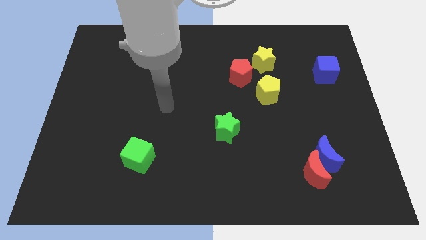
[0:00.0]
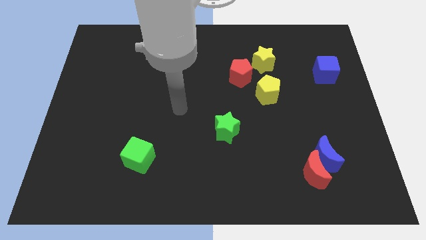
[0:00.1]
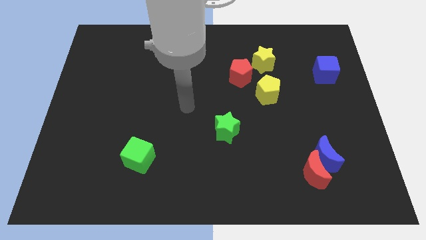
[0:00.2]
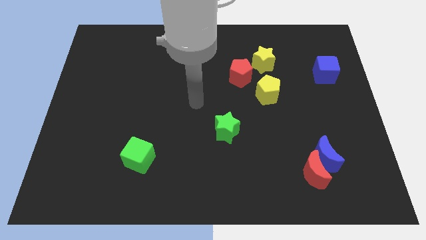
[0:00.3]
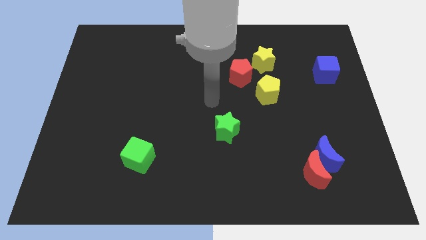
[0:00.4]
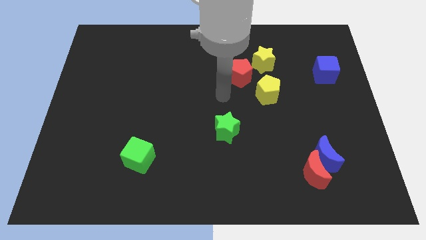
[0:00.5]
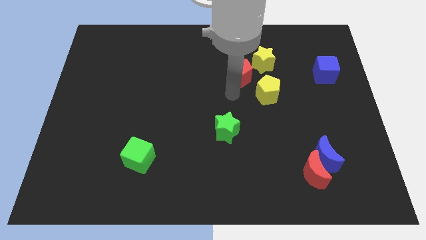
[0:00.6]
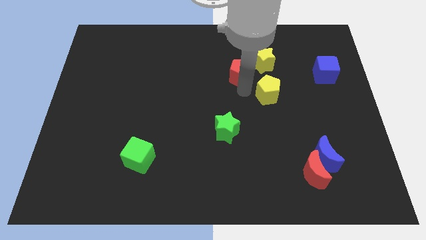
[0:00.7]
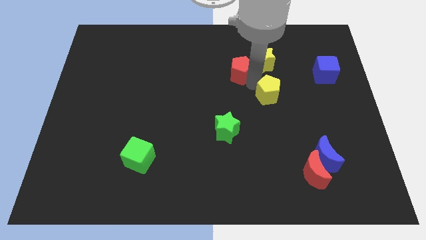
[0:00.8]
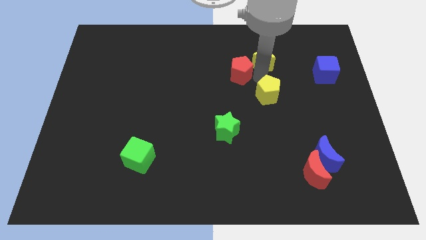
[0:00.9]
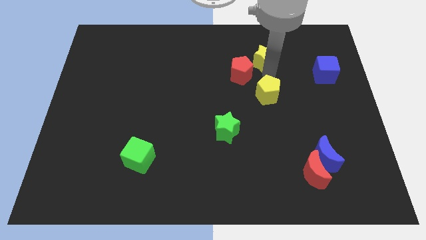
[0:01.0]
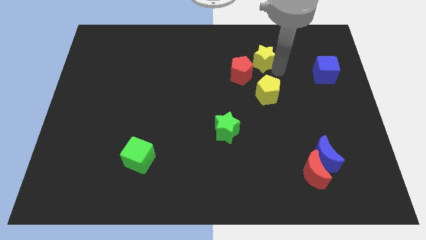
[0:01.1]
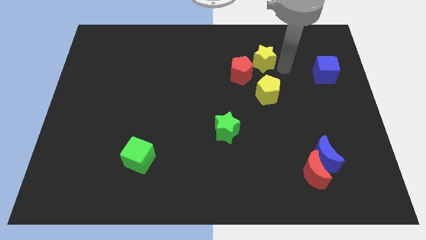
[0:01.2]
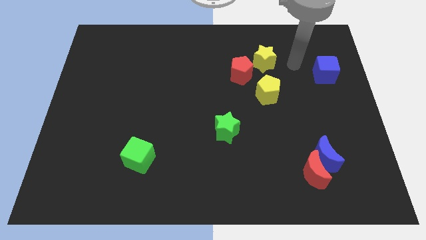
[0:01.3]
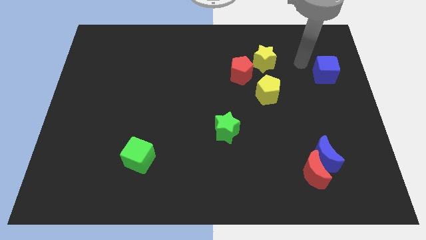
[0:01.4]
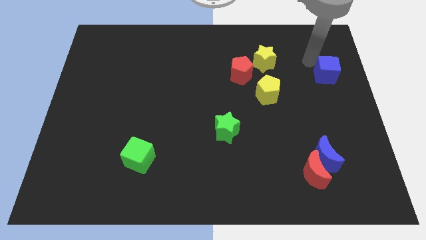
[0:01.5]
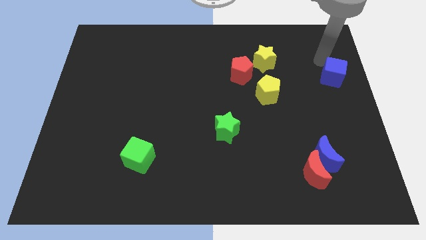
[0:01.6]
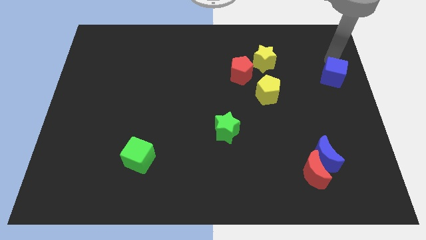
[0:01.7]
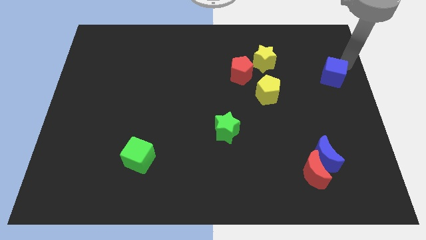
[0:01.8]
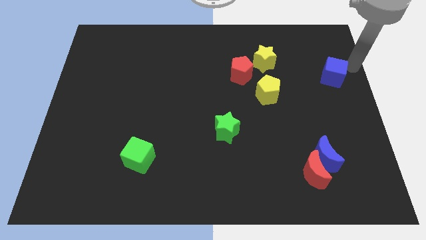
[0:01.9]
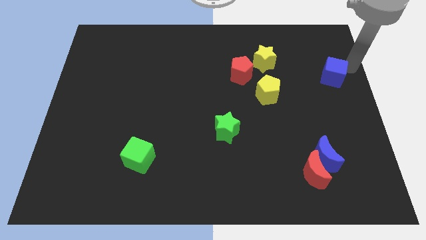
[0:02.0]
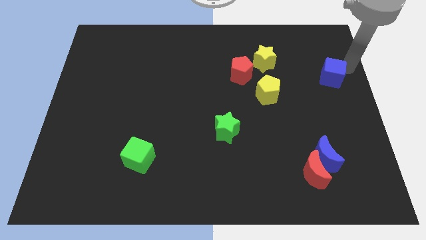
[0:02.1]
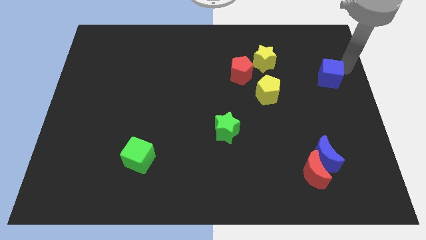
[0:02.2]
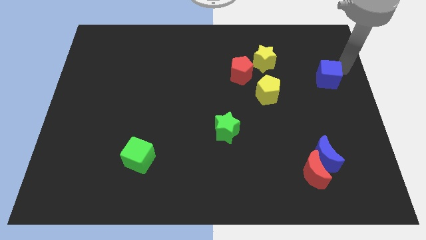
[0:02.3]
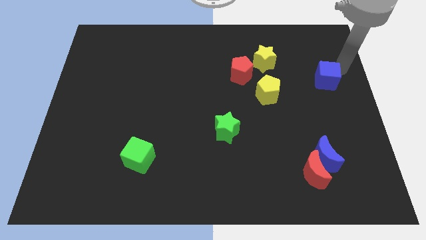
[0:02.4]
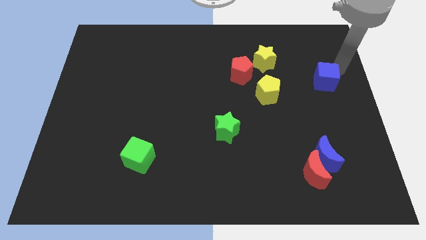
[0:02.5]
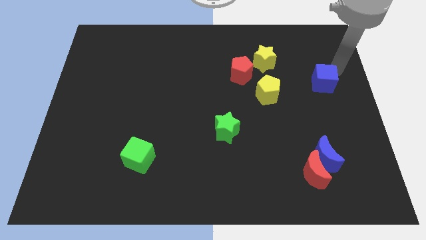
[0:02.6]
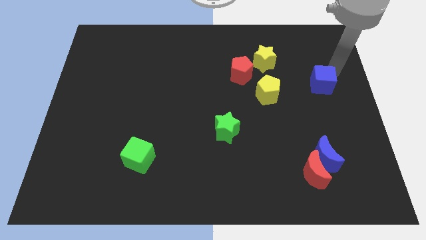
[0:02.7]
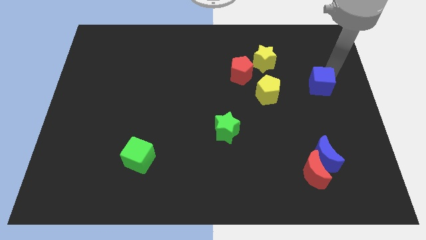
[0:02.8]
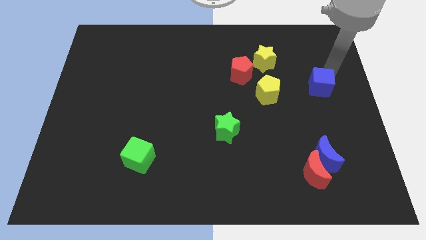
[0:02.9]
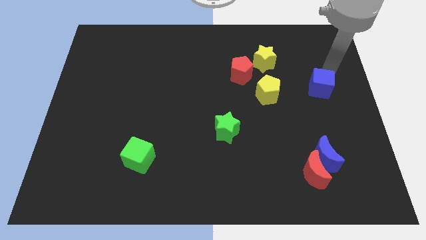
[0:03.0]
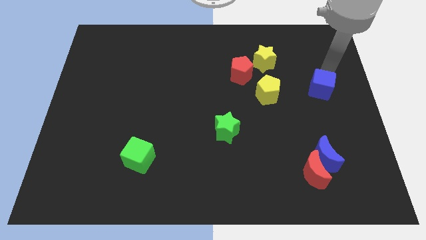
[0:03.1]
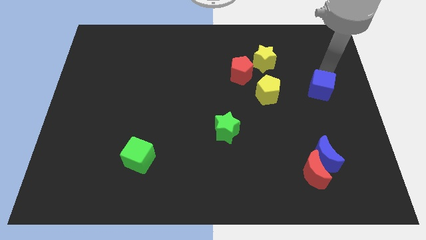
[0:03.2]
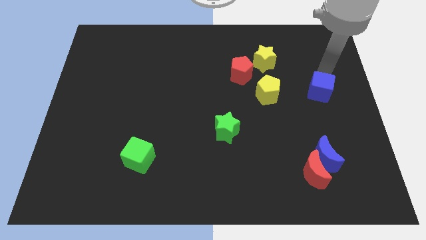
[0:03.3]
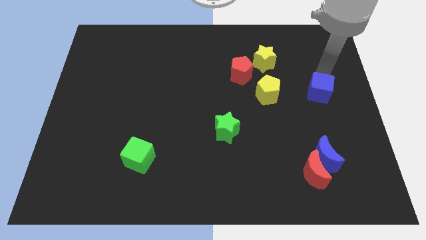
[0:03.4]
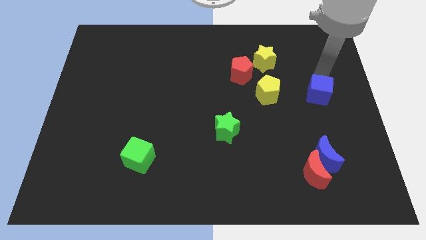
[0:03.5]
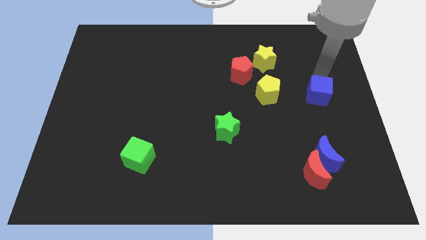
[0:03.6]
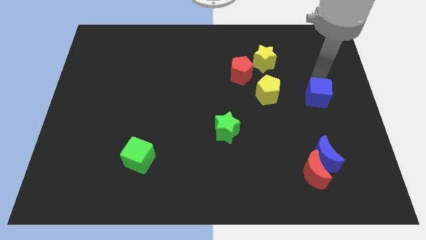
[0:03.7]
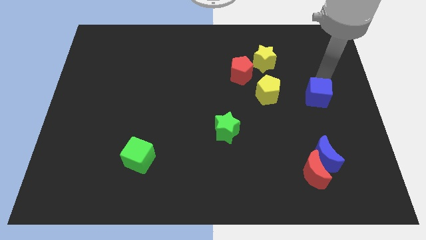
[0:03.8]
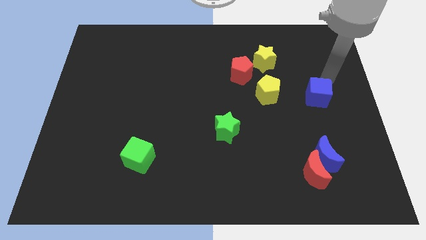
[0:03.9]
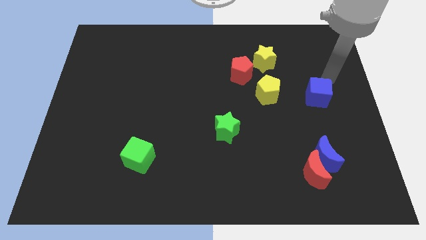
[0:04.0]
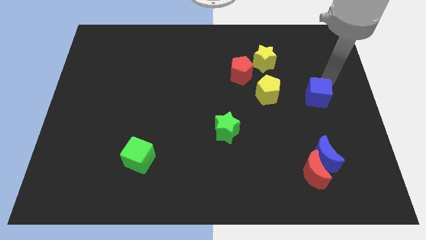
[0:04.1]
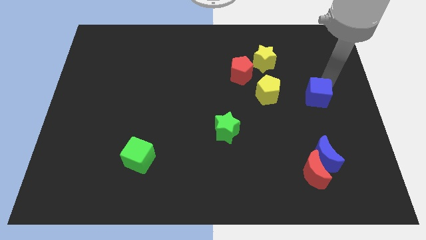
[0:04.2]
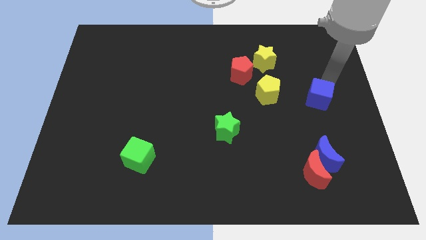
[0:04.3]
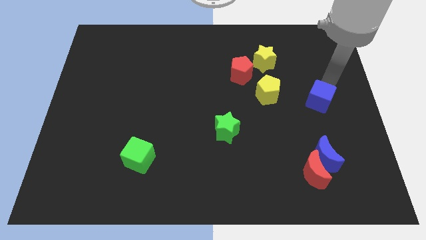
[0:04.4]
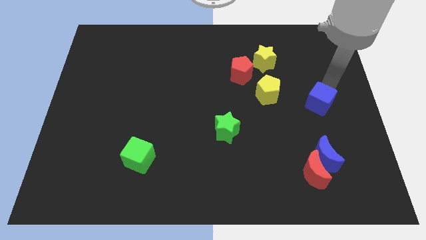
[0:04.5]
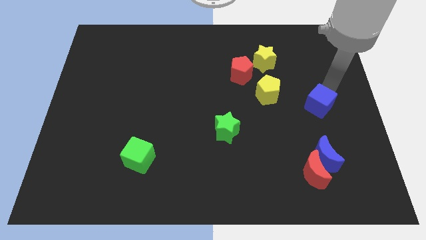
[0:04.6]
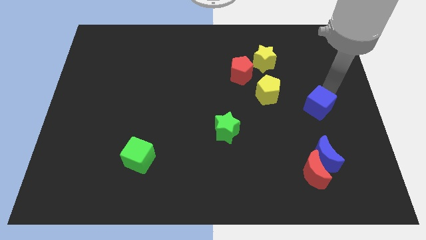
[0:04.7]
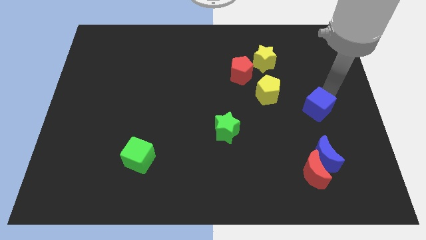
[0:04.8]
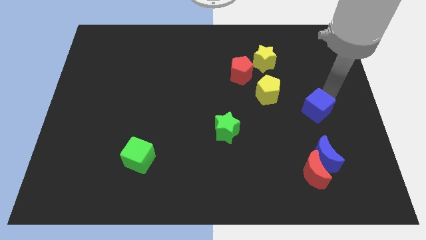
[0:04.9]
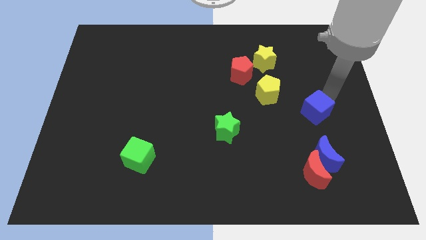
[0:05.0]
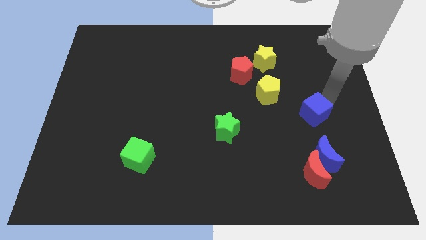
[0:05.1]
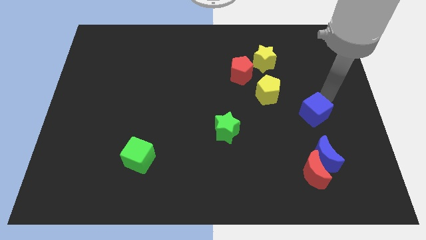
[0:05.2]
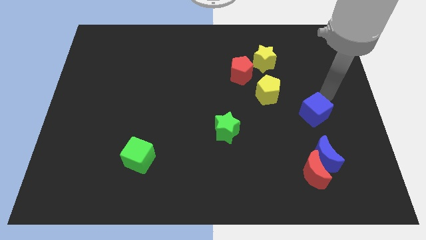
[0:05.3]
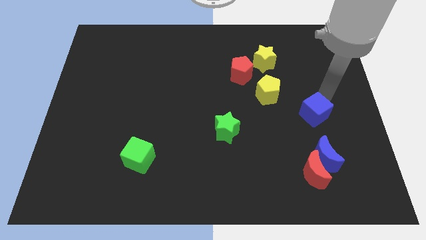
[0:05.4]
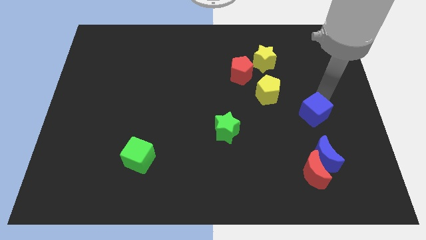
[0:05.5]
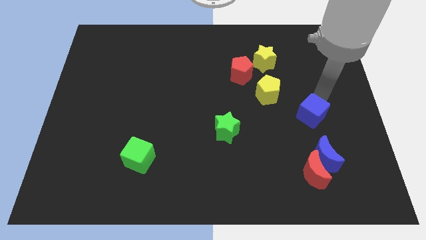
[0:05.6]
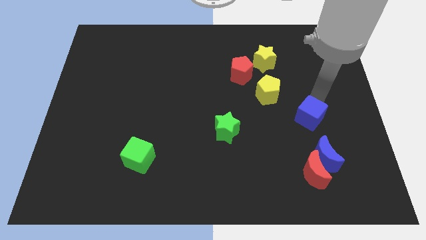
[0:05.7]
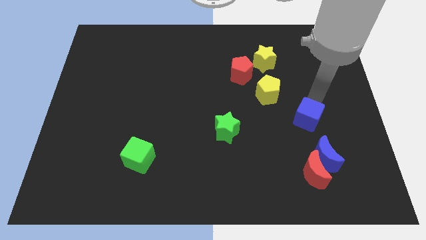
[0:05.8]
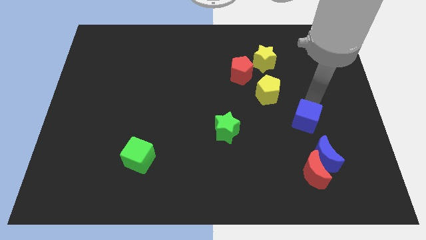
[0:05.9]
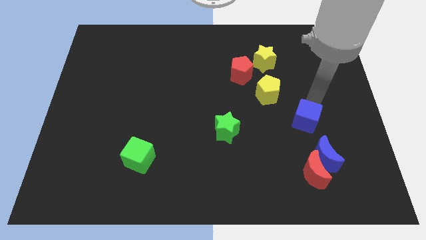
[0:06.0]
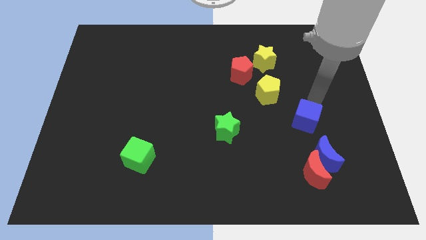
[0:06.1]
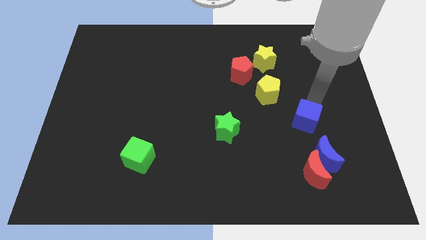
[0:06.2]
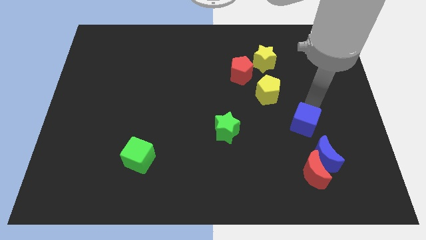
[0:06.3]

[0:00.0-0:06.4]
push the blue cube to the top left side of the blue moon

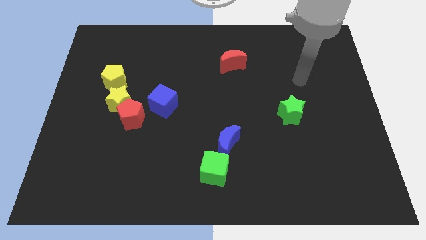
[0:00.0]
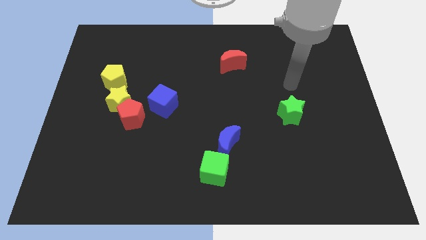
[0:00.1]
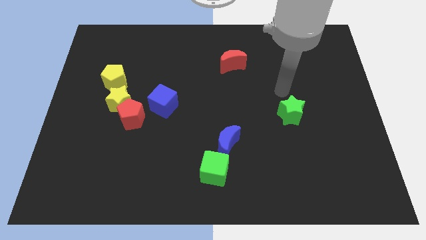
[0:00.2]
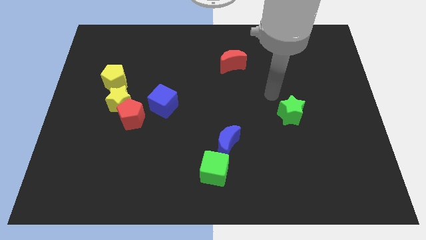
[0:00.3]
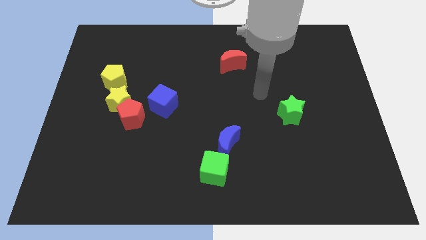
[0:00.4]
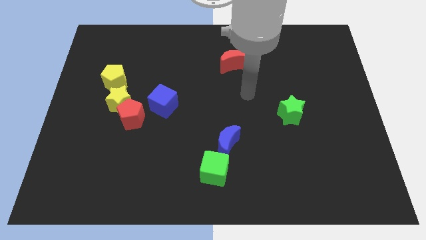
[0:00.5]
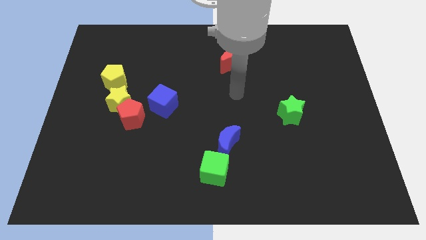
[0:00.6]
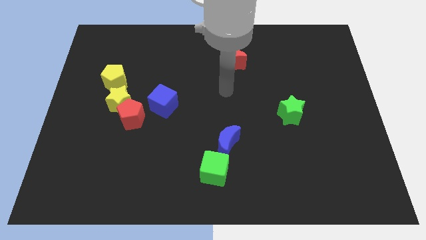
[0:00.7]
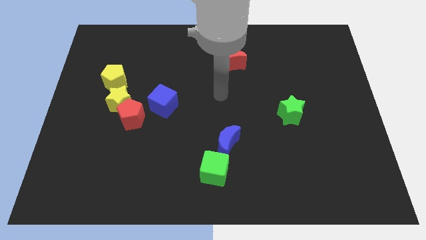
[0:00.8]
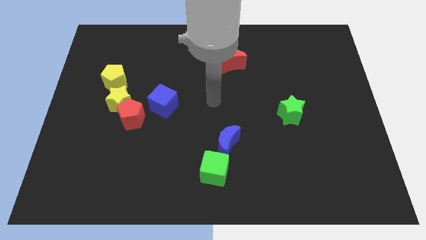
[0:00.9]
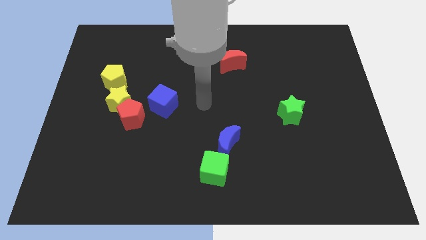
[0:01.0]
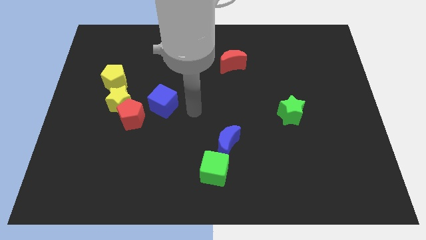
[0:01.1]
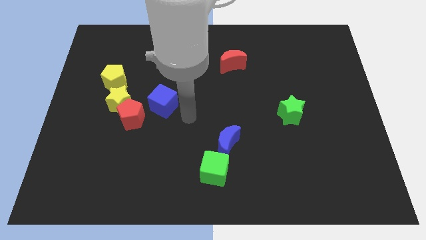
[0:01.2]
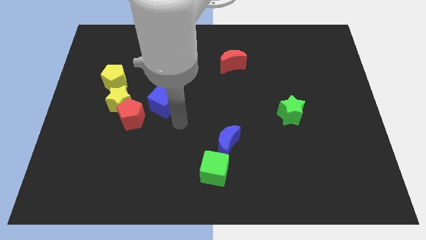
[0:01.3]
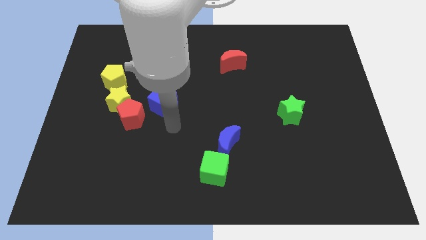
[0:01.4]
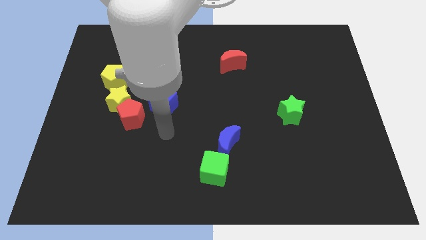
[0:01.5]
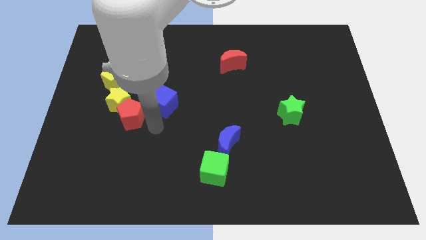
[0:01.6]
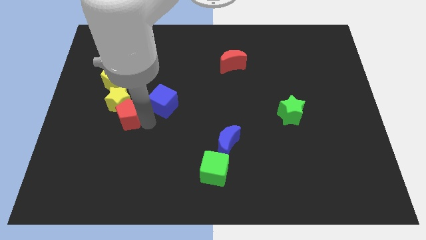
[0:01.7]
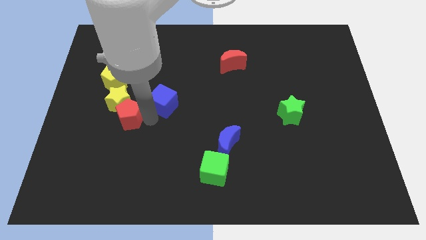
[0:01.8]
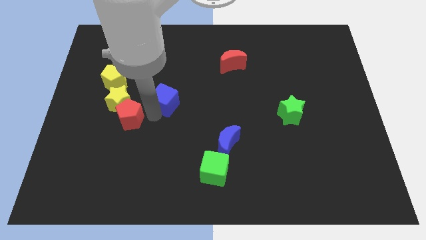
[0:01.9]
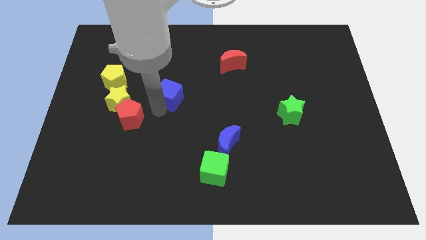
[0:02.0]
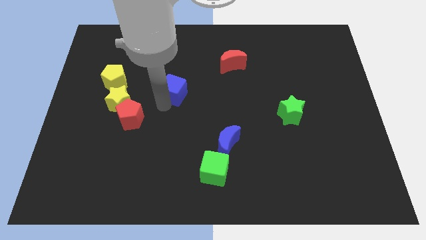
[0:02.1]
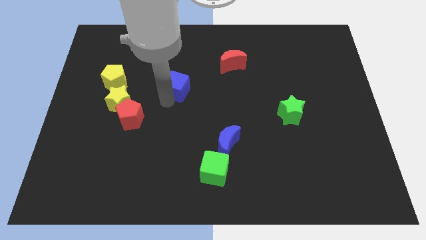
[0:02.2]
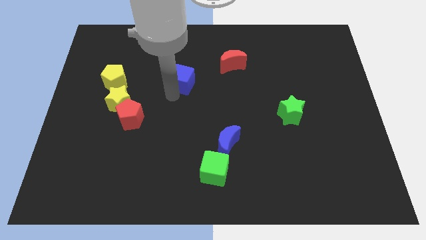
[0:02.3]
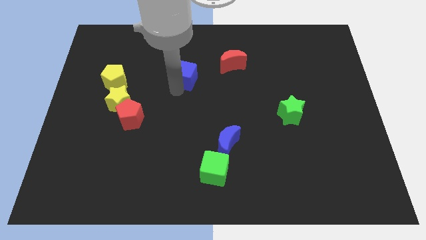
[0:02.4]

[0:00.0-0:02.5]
push the blue cube just left of the red moon
